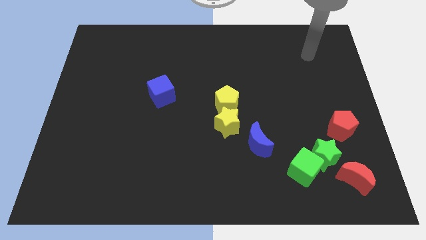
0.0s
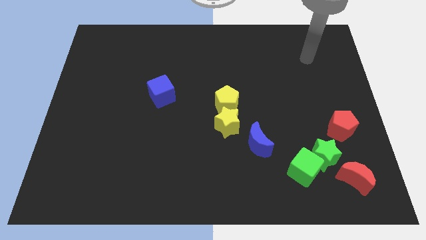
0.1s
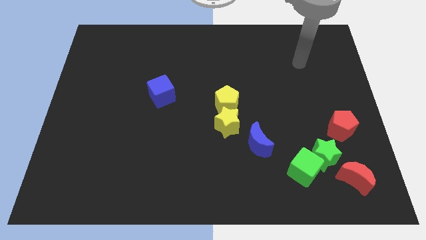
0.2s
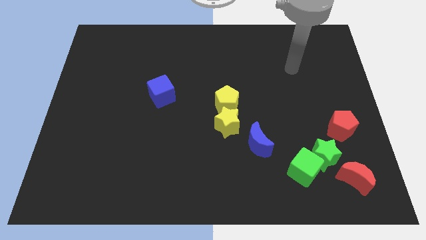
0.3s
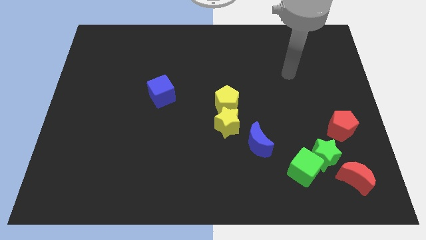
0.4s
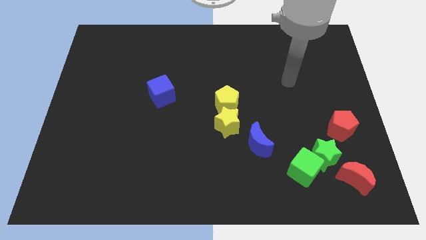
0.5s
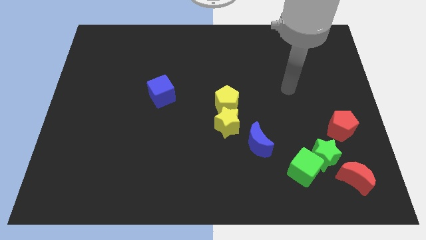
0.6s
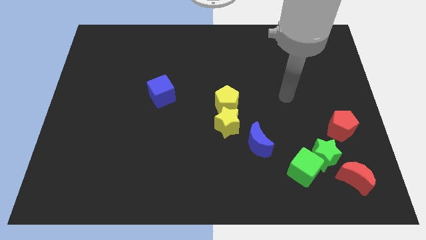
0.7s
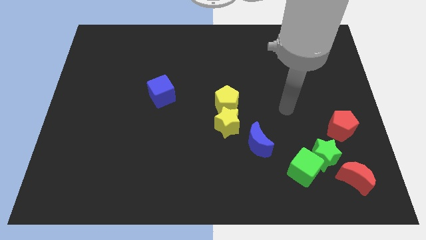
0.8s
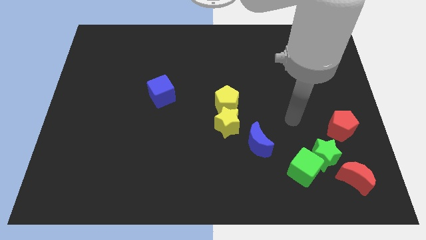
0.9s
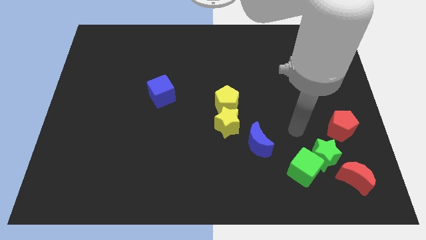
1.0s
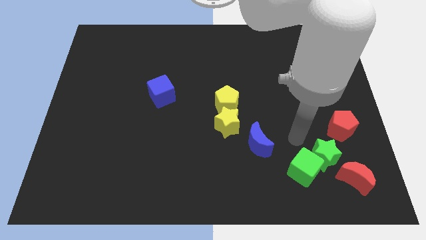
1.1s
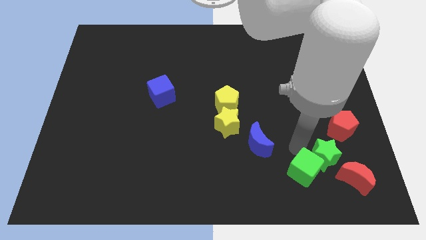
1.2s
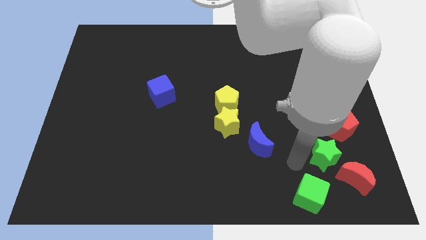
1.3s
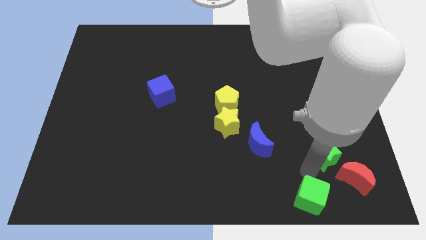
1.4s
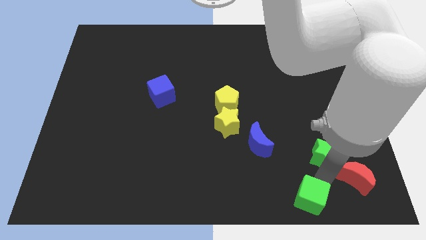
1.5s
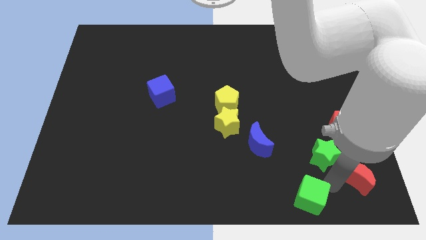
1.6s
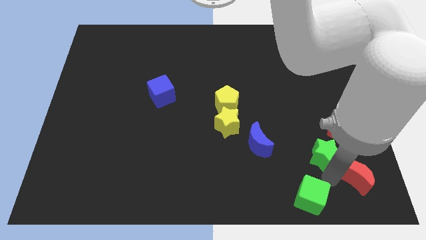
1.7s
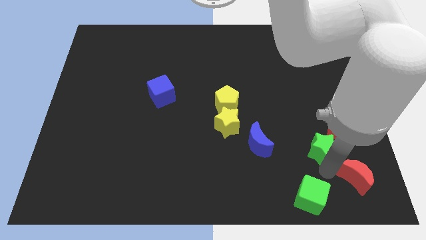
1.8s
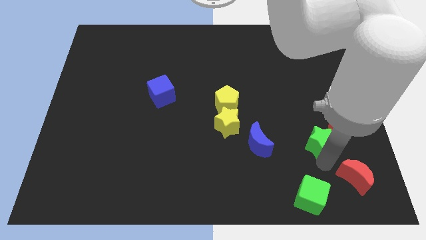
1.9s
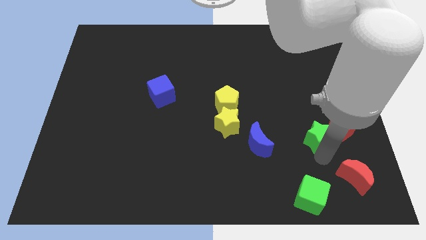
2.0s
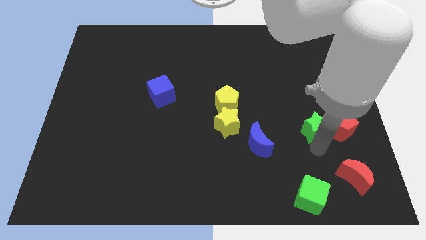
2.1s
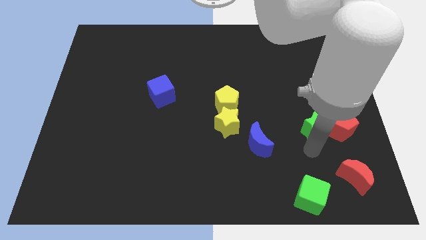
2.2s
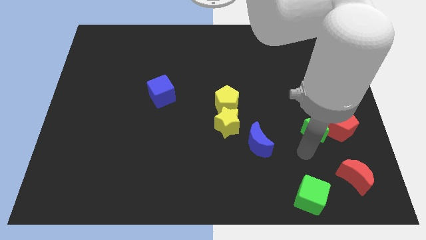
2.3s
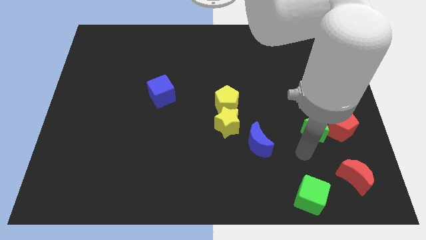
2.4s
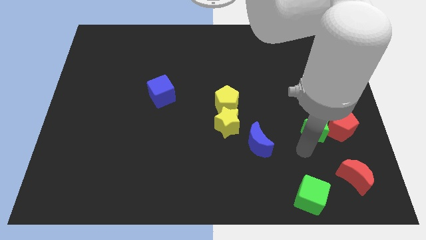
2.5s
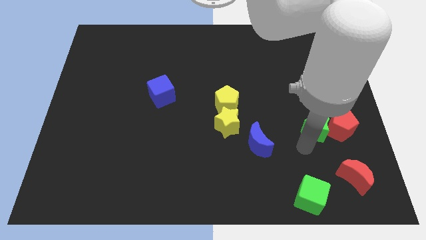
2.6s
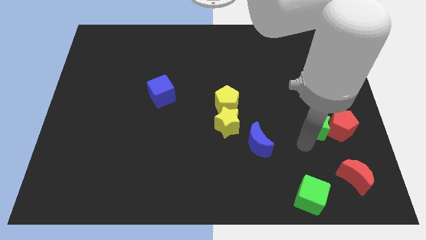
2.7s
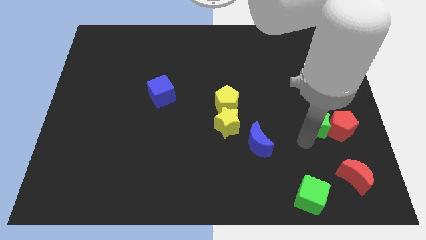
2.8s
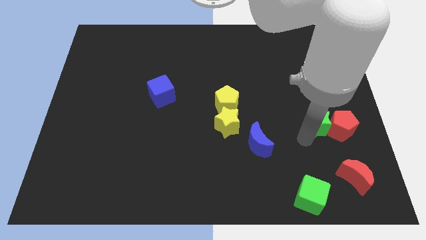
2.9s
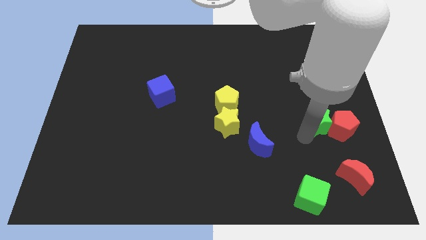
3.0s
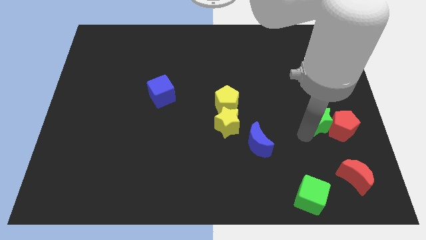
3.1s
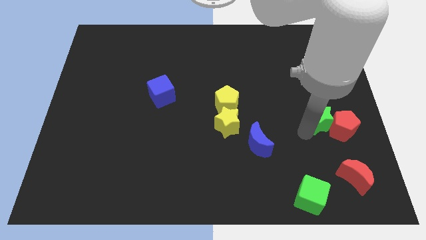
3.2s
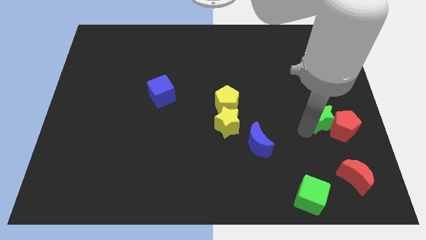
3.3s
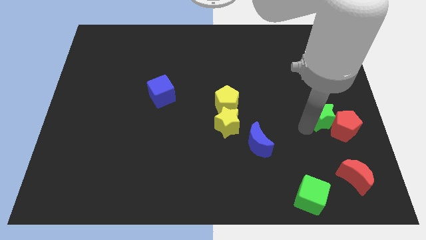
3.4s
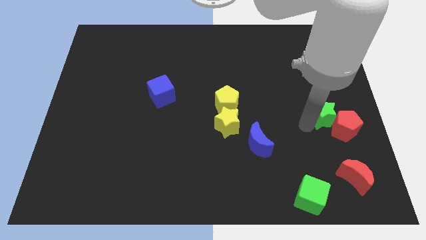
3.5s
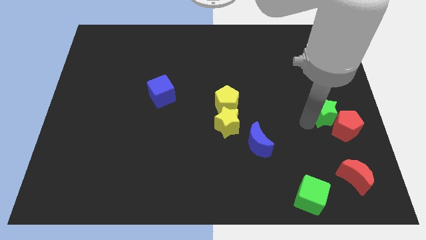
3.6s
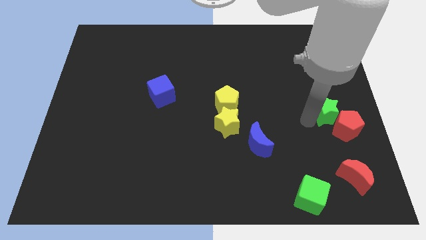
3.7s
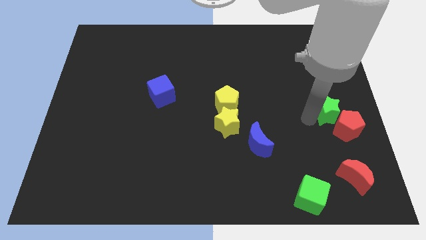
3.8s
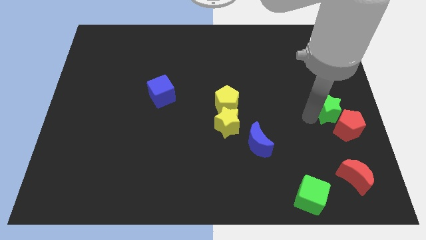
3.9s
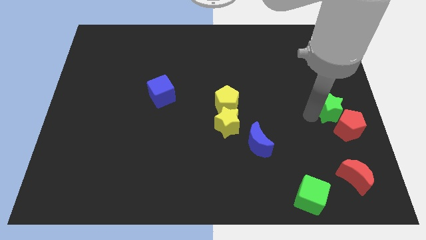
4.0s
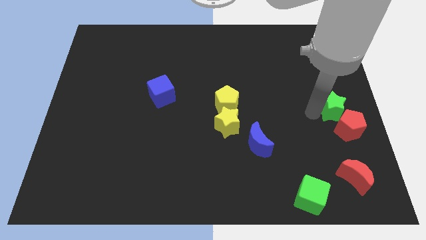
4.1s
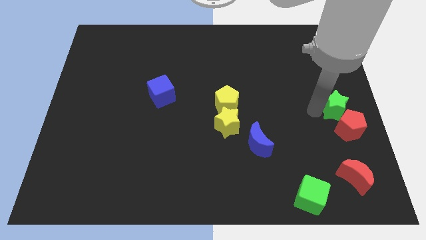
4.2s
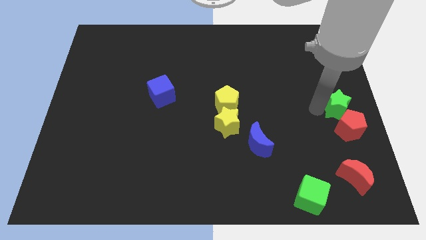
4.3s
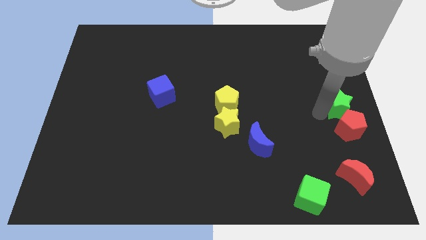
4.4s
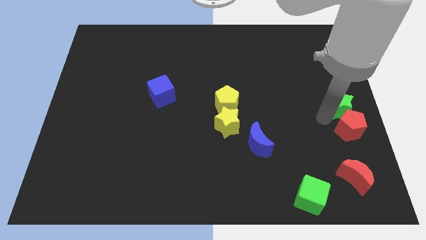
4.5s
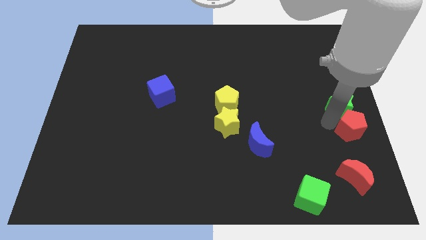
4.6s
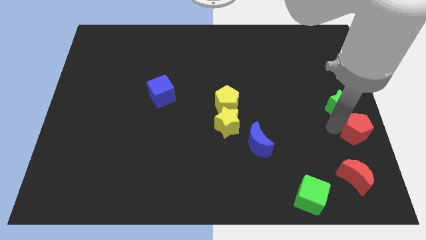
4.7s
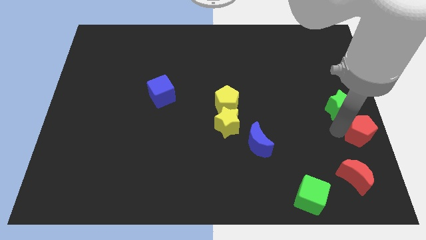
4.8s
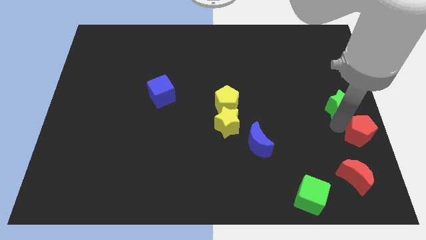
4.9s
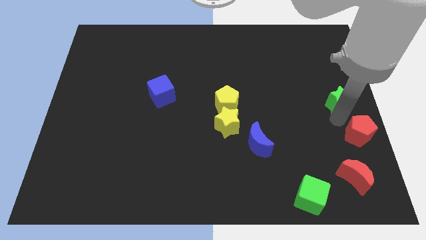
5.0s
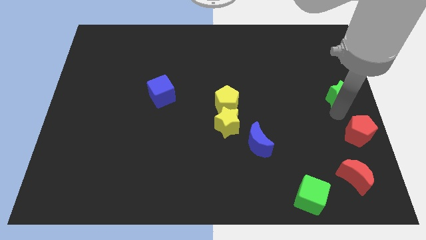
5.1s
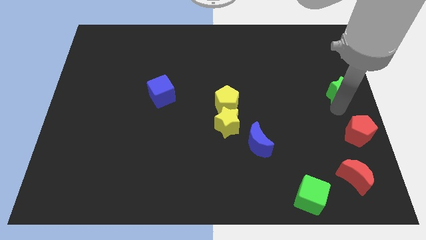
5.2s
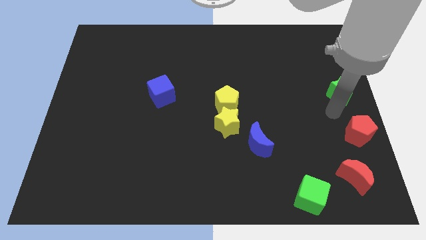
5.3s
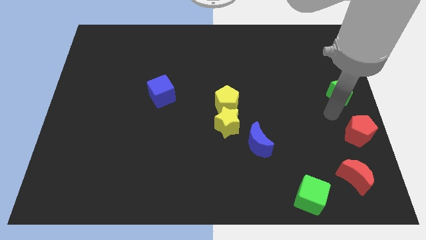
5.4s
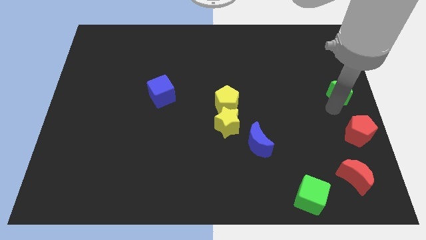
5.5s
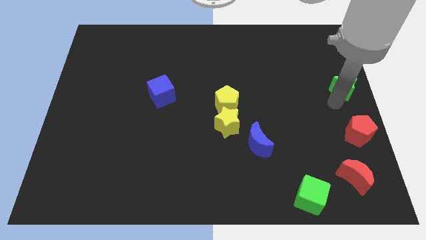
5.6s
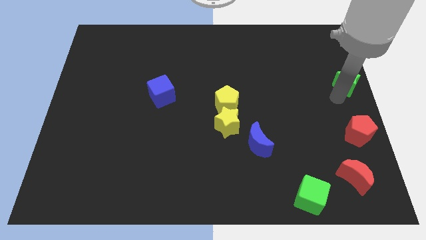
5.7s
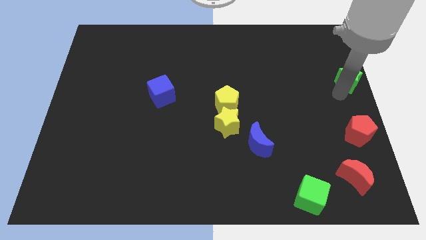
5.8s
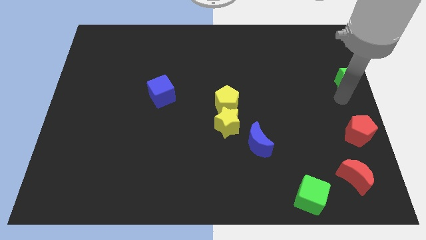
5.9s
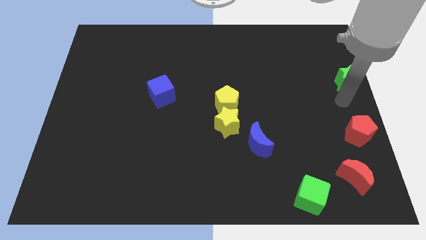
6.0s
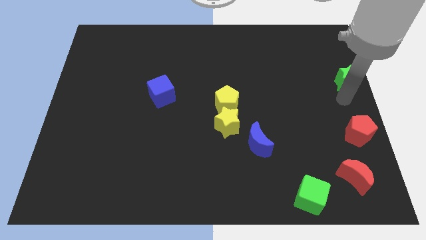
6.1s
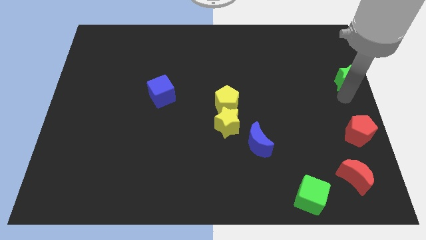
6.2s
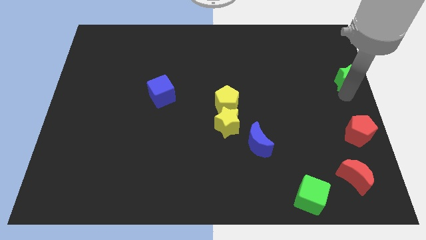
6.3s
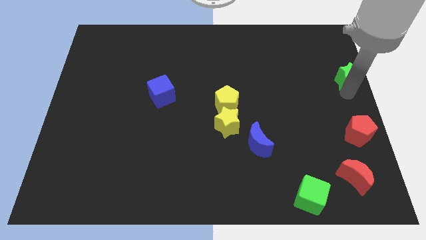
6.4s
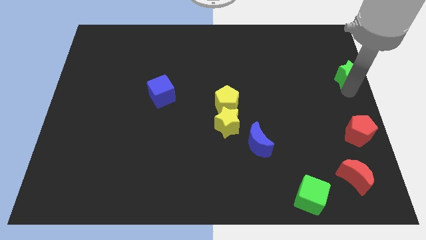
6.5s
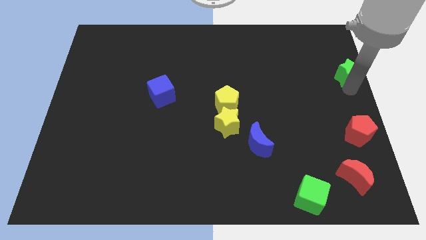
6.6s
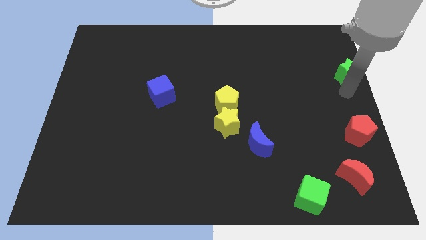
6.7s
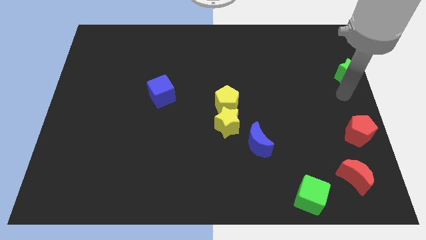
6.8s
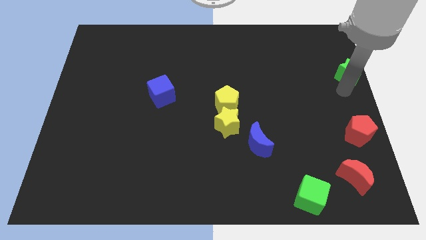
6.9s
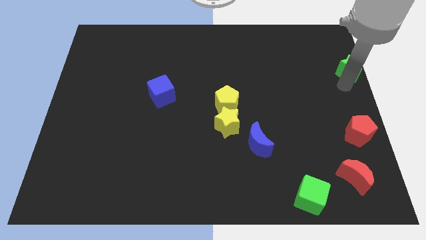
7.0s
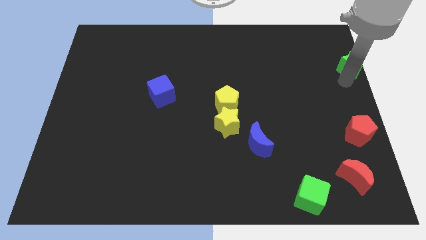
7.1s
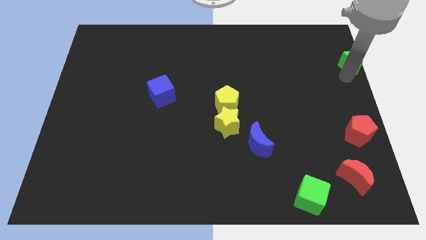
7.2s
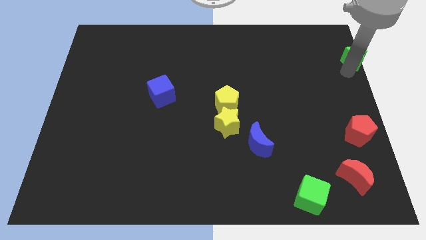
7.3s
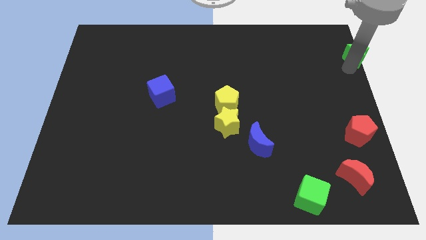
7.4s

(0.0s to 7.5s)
move the green star to the top right corner
